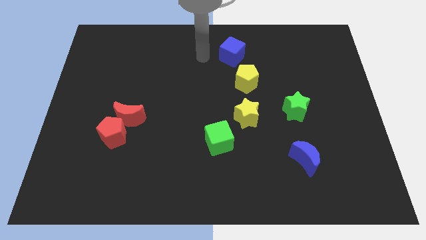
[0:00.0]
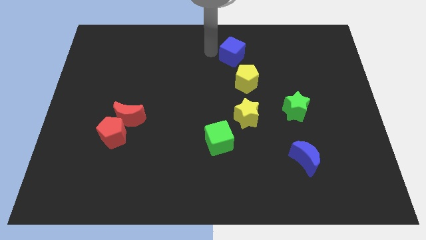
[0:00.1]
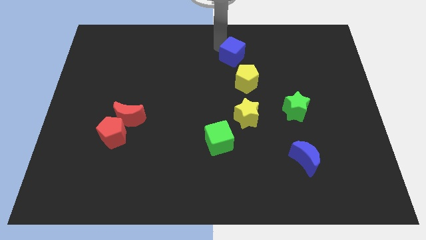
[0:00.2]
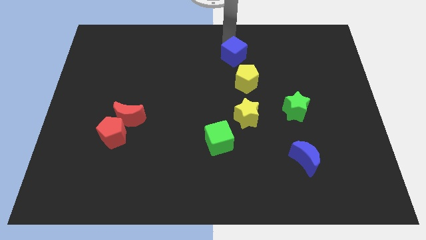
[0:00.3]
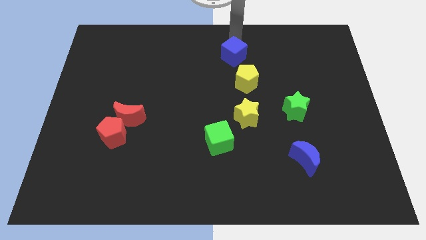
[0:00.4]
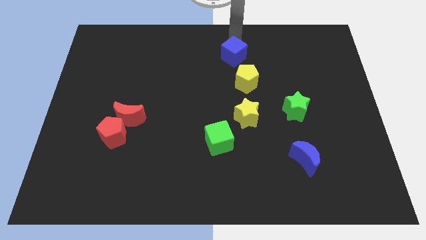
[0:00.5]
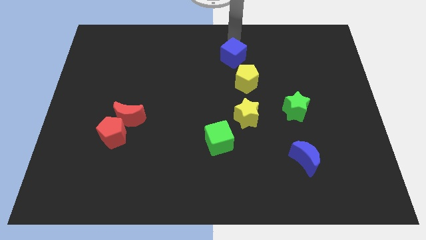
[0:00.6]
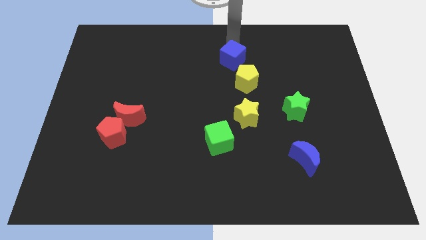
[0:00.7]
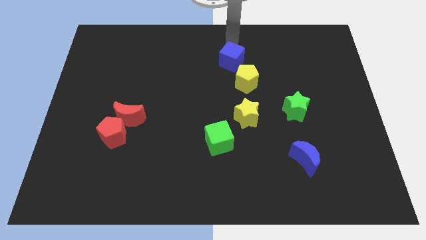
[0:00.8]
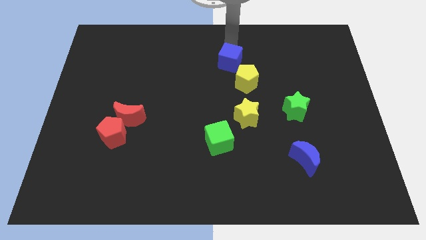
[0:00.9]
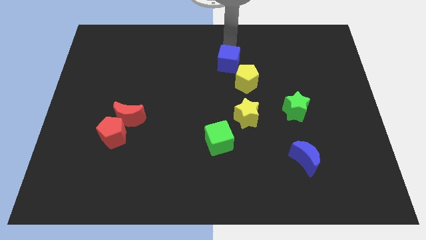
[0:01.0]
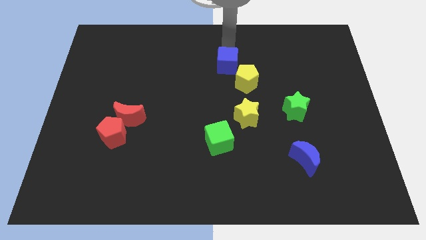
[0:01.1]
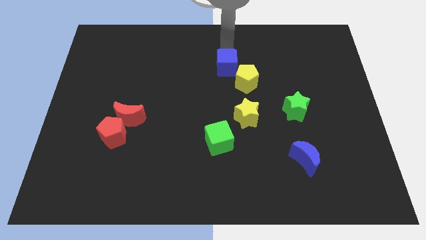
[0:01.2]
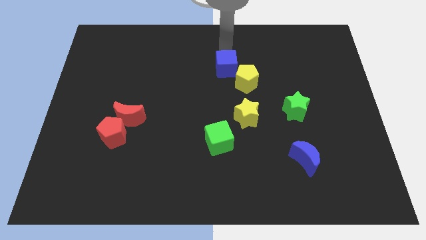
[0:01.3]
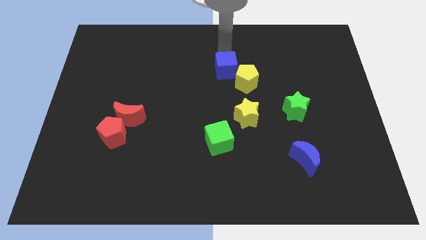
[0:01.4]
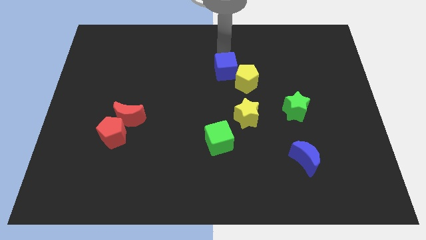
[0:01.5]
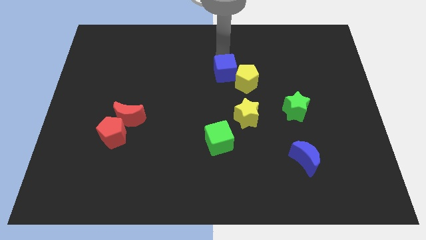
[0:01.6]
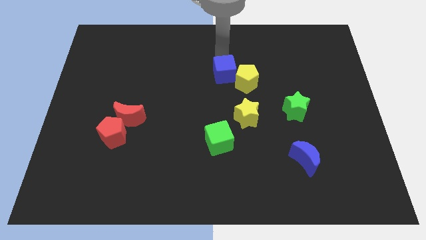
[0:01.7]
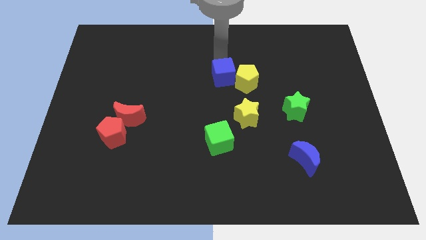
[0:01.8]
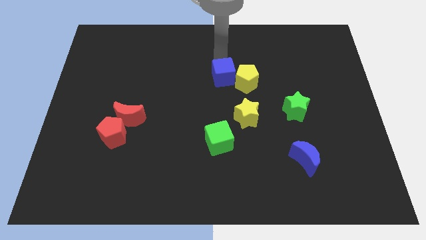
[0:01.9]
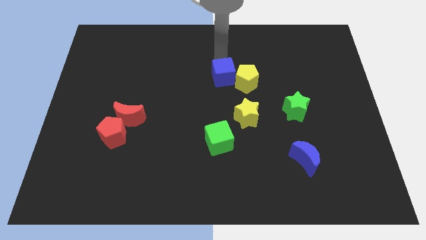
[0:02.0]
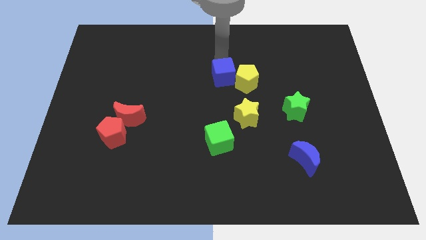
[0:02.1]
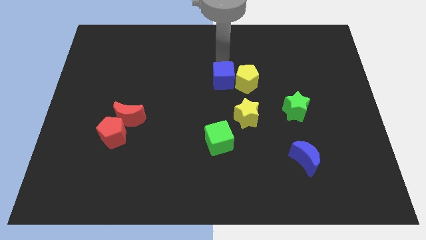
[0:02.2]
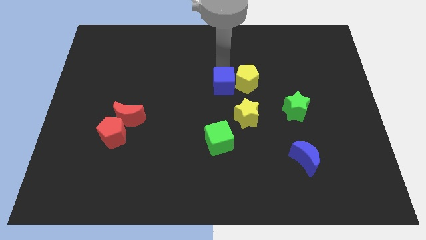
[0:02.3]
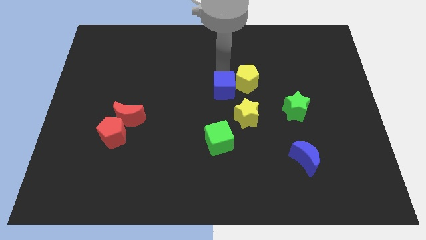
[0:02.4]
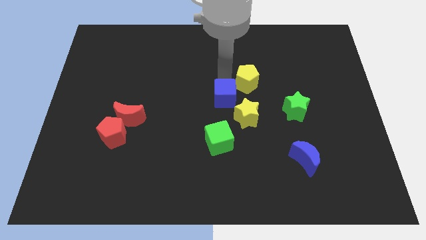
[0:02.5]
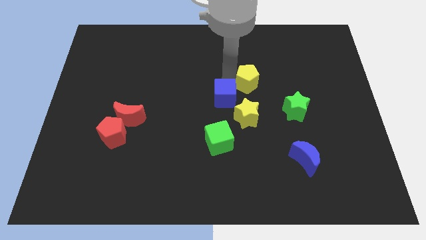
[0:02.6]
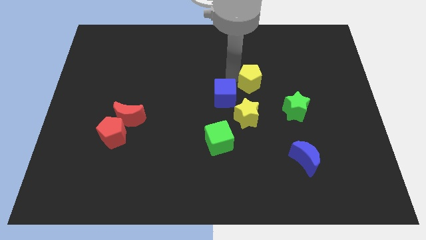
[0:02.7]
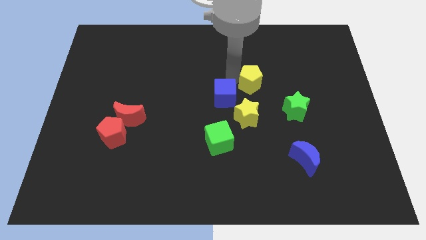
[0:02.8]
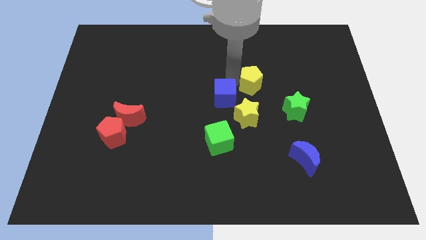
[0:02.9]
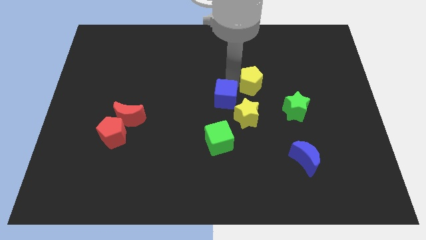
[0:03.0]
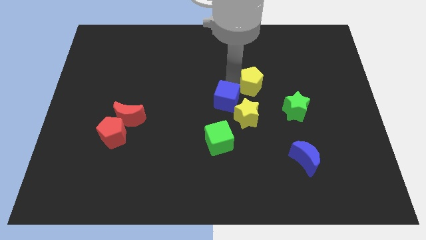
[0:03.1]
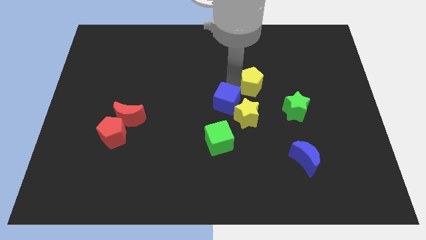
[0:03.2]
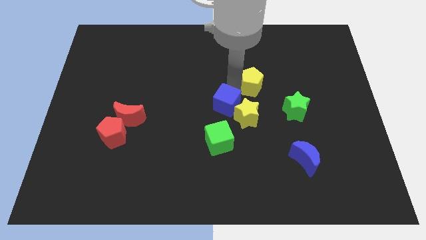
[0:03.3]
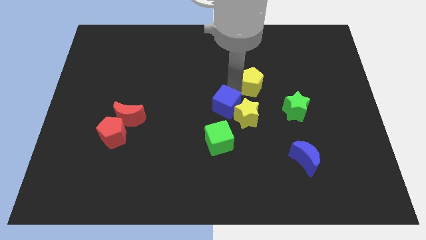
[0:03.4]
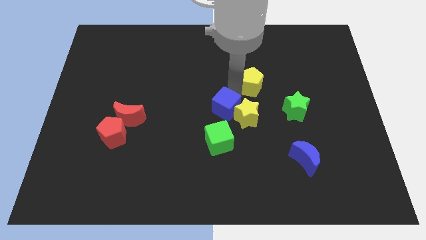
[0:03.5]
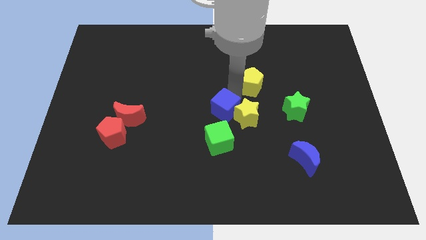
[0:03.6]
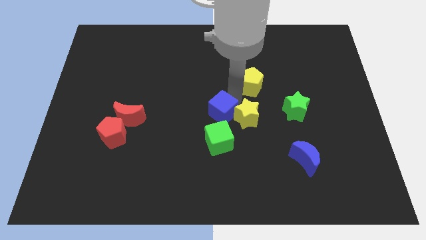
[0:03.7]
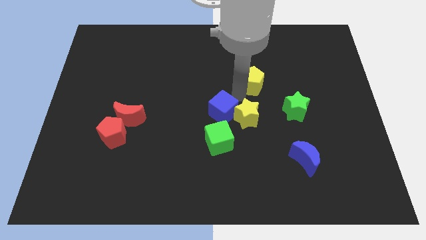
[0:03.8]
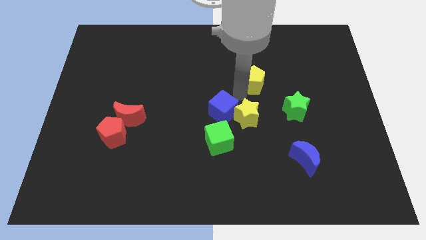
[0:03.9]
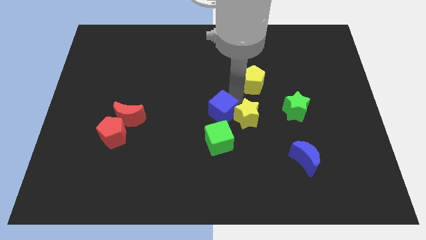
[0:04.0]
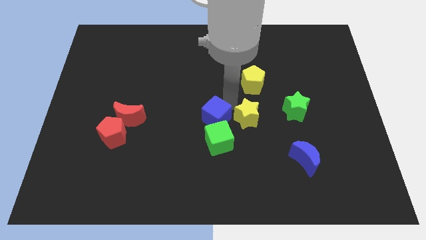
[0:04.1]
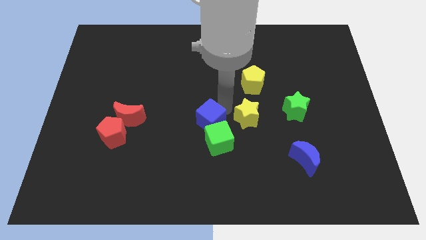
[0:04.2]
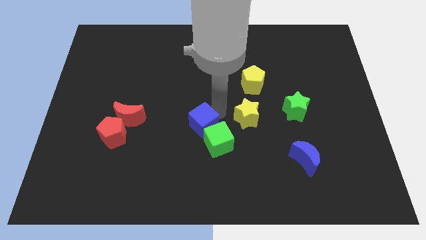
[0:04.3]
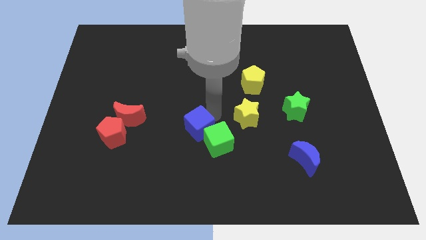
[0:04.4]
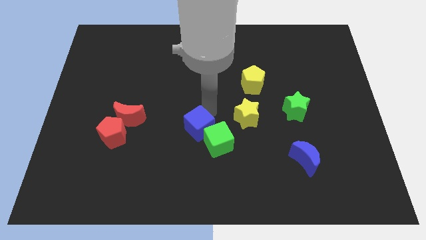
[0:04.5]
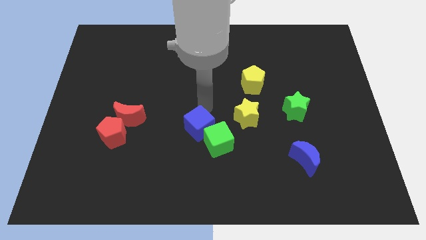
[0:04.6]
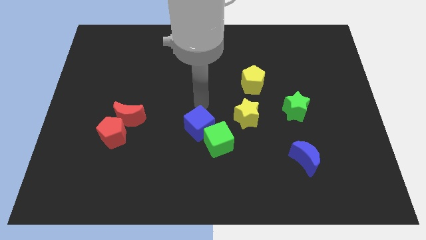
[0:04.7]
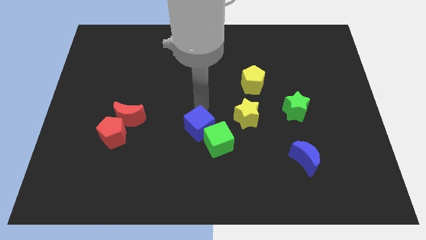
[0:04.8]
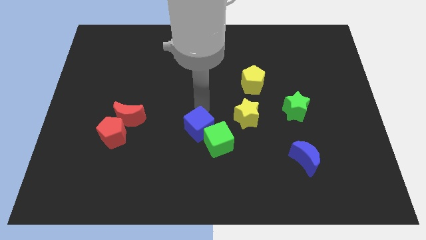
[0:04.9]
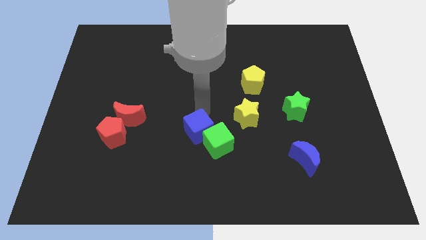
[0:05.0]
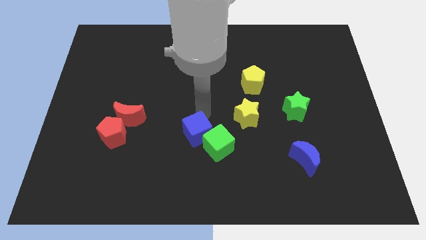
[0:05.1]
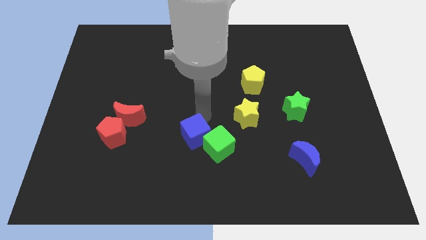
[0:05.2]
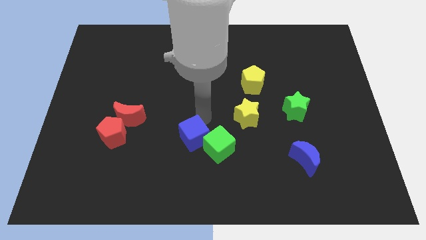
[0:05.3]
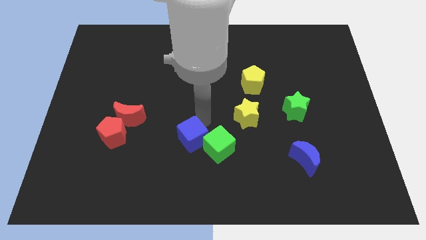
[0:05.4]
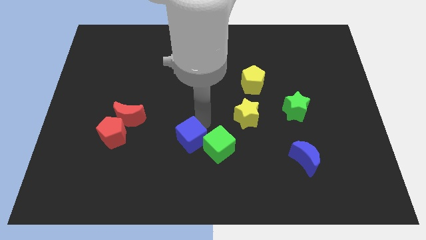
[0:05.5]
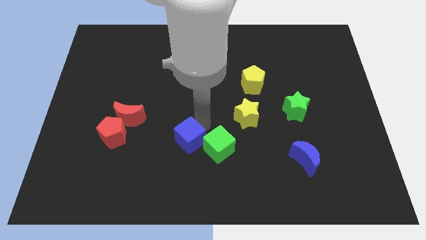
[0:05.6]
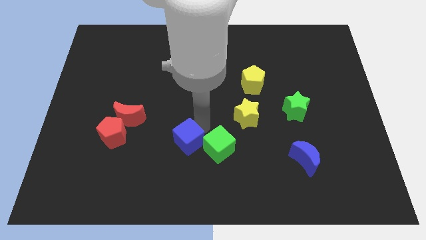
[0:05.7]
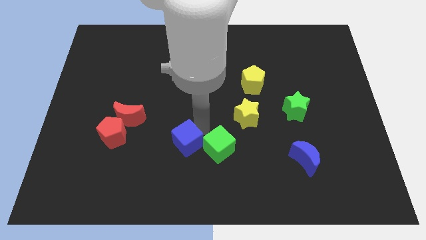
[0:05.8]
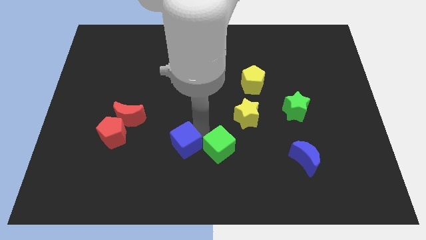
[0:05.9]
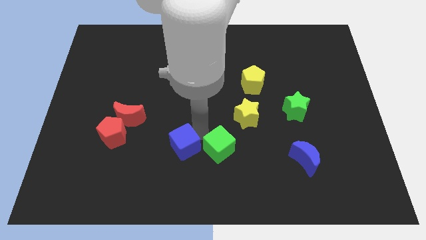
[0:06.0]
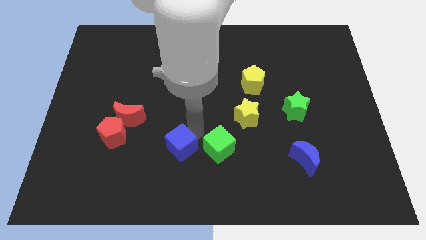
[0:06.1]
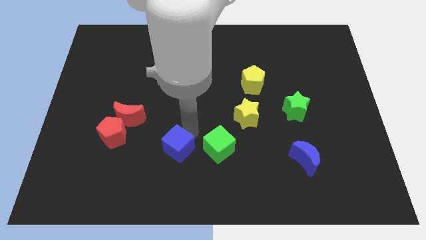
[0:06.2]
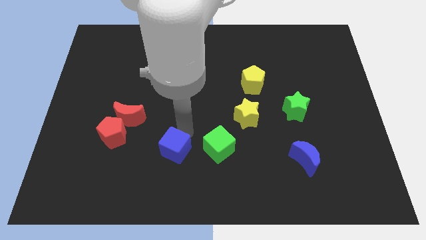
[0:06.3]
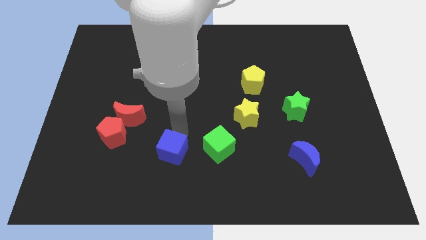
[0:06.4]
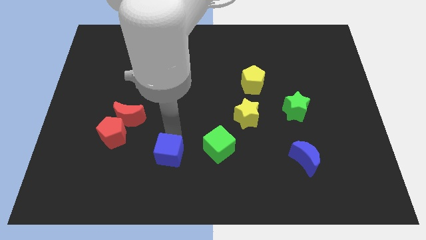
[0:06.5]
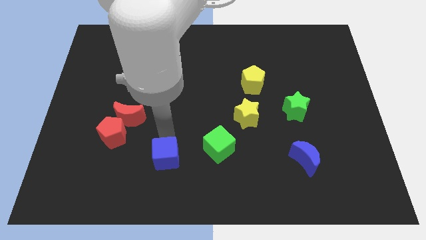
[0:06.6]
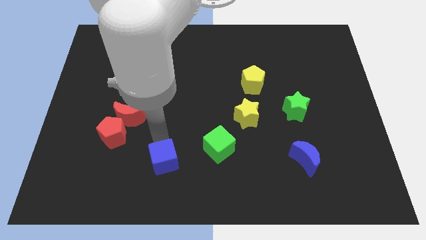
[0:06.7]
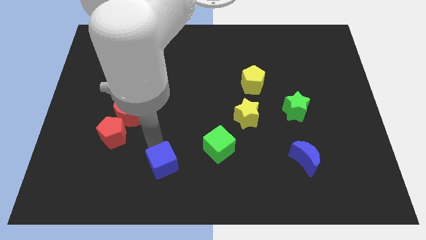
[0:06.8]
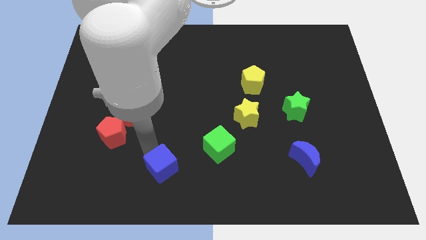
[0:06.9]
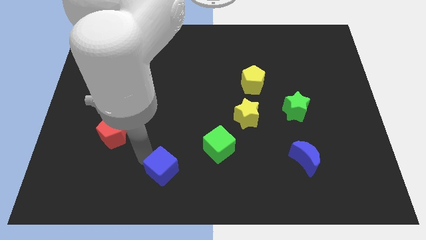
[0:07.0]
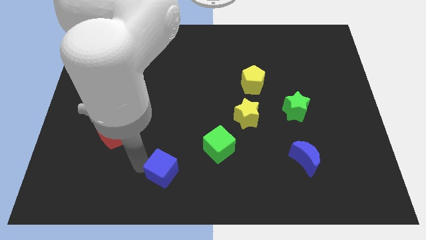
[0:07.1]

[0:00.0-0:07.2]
move the blue cube to the bottom side
